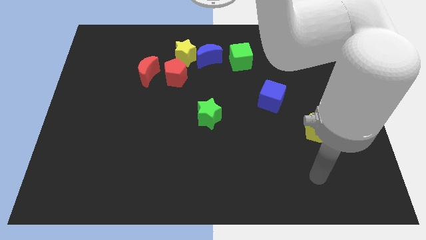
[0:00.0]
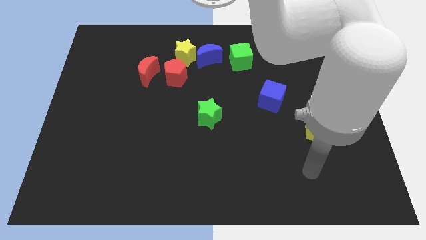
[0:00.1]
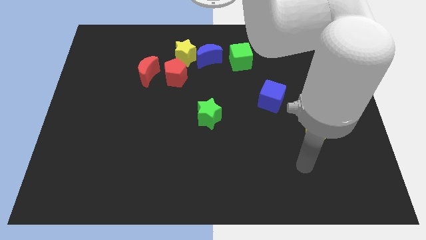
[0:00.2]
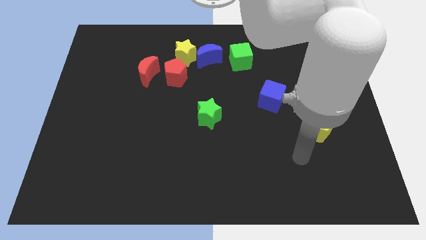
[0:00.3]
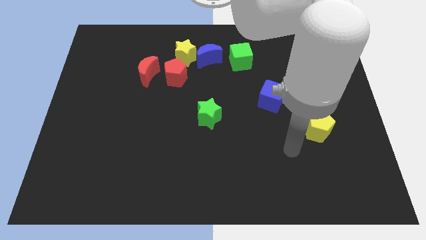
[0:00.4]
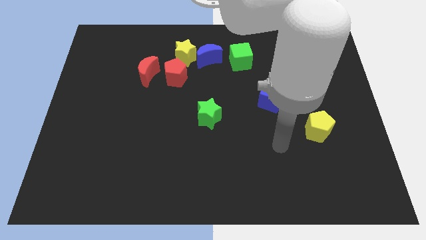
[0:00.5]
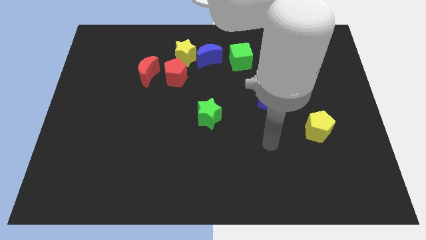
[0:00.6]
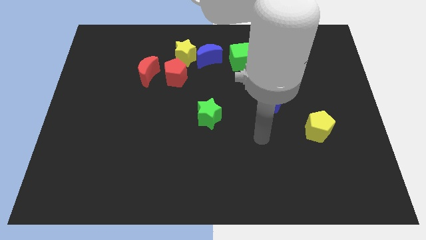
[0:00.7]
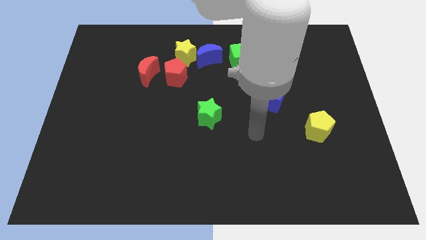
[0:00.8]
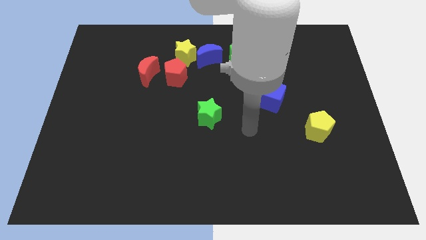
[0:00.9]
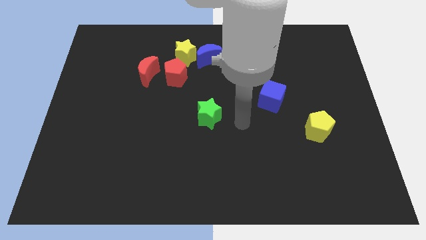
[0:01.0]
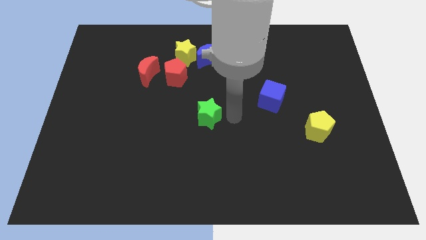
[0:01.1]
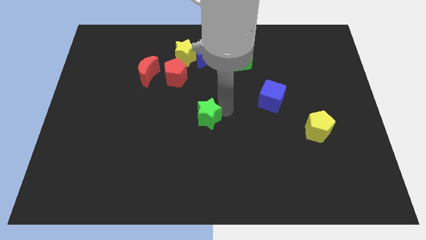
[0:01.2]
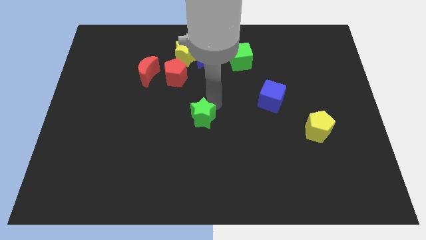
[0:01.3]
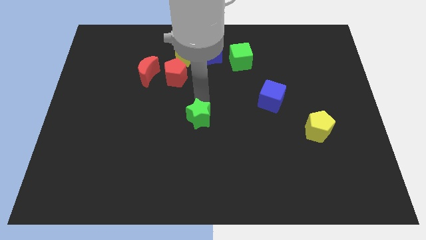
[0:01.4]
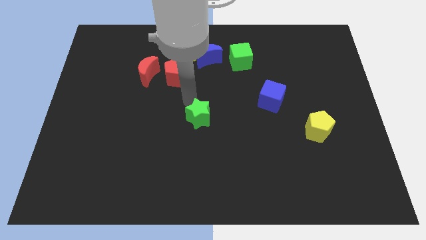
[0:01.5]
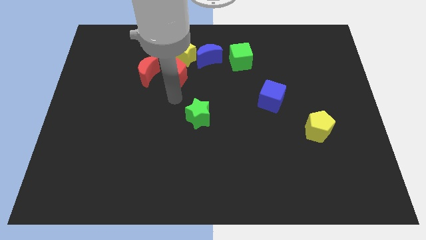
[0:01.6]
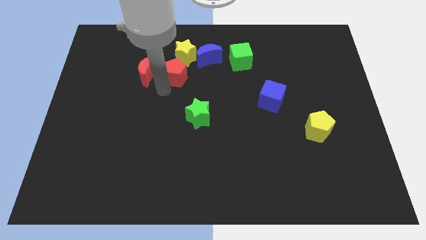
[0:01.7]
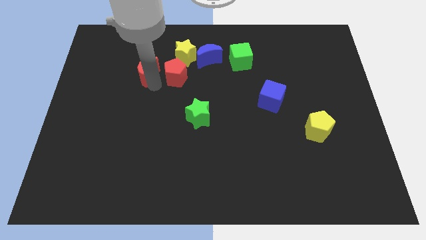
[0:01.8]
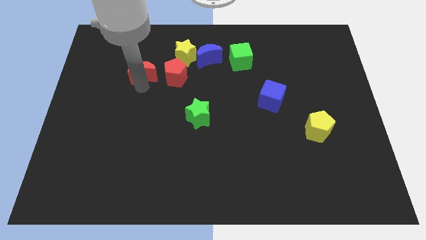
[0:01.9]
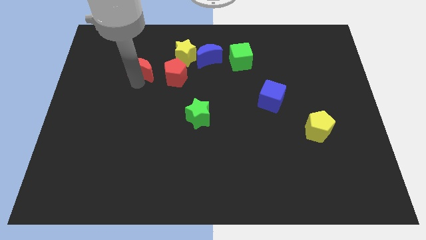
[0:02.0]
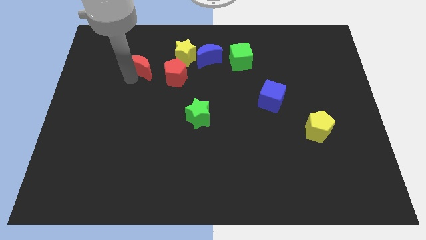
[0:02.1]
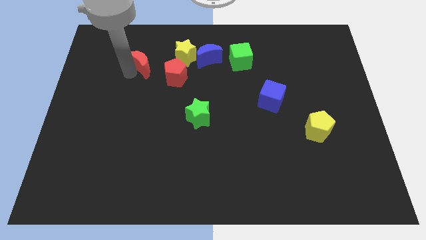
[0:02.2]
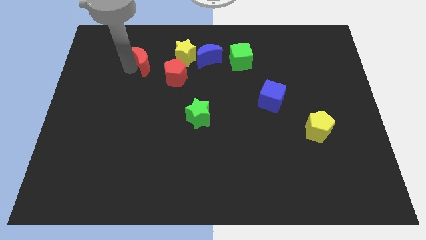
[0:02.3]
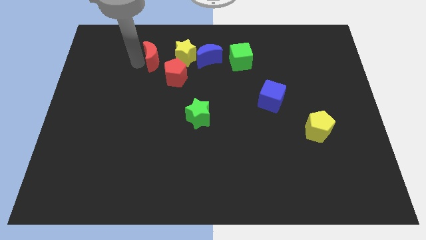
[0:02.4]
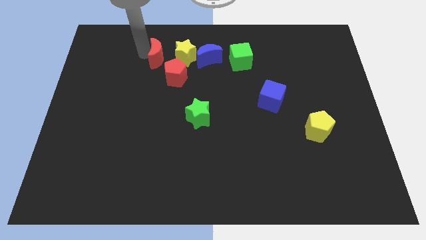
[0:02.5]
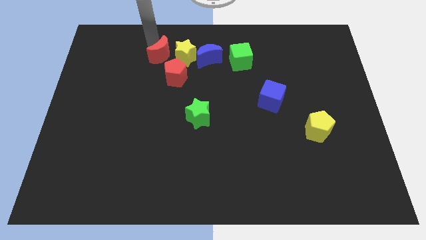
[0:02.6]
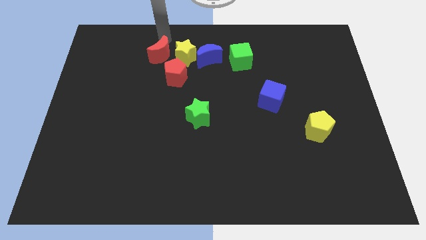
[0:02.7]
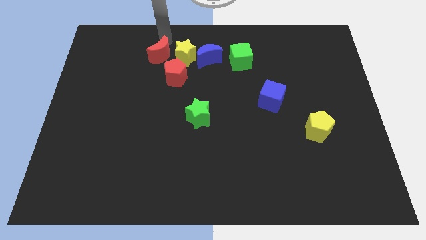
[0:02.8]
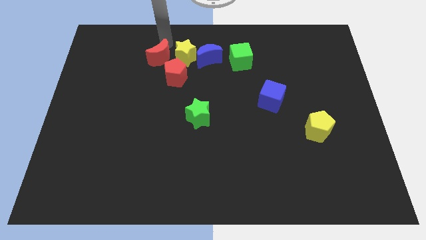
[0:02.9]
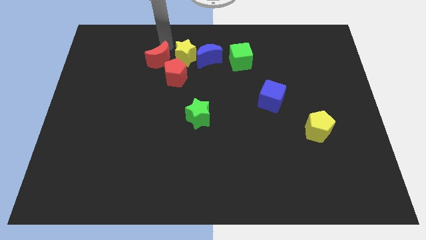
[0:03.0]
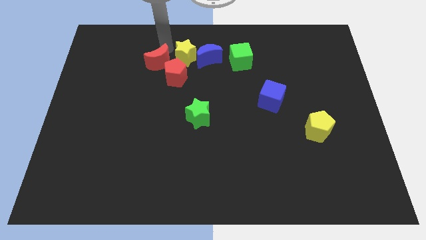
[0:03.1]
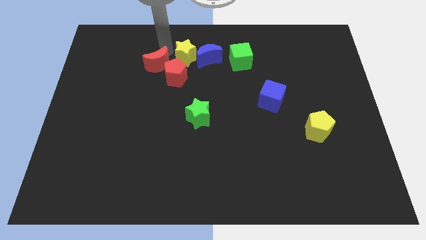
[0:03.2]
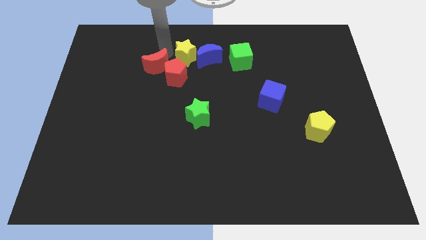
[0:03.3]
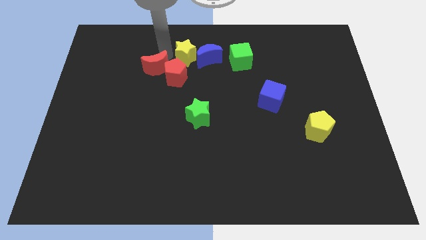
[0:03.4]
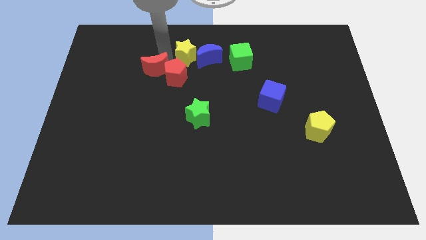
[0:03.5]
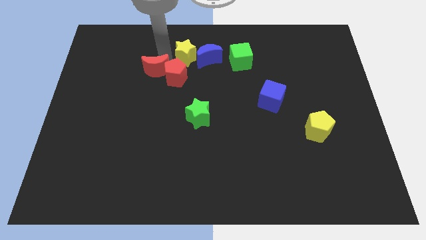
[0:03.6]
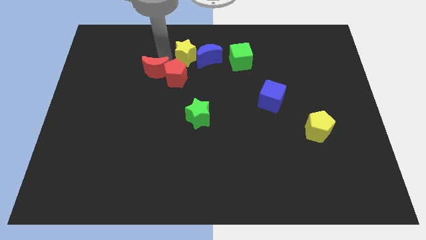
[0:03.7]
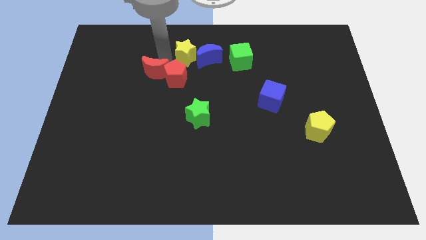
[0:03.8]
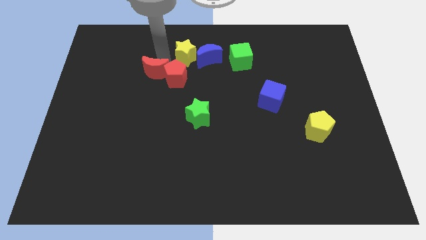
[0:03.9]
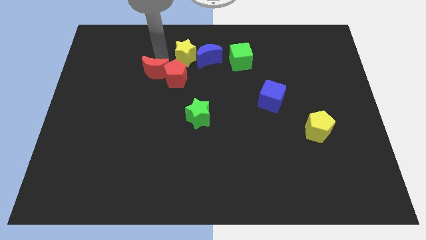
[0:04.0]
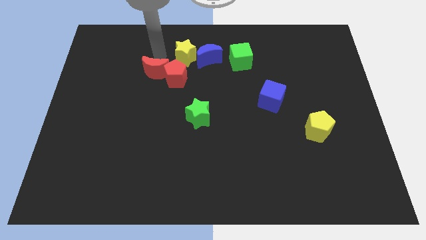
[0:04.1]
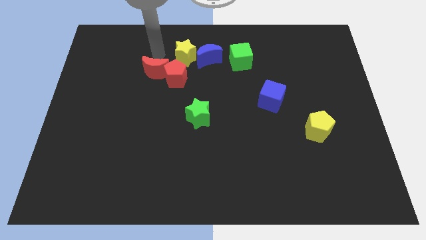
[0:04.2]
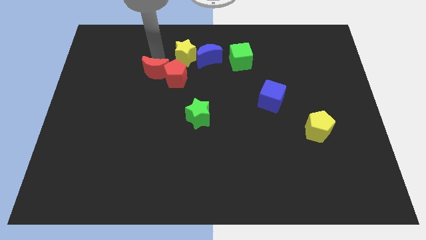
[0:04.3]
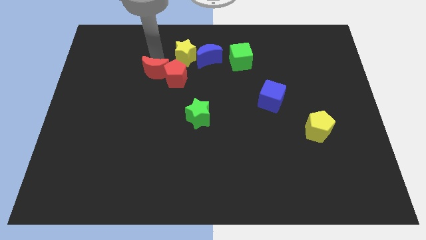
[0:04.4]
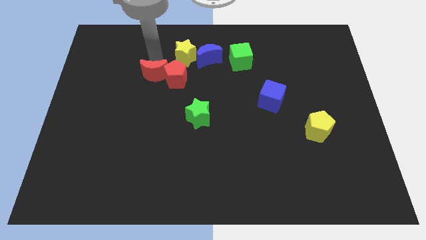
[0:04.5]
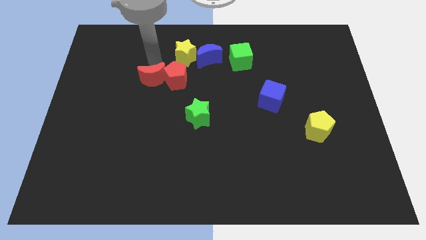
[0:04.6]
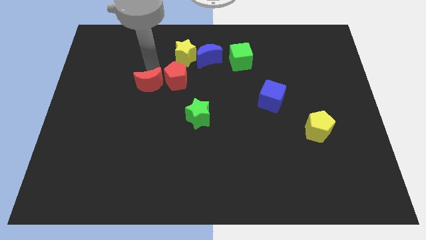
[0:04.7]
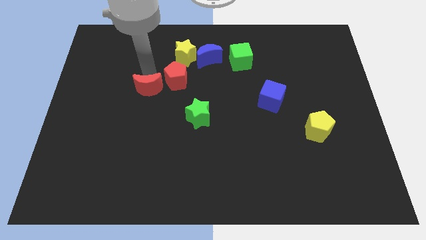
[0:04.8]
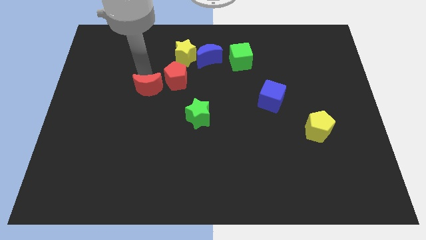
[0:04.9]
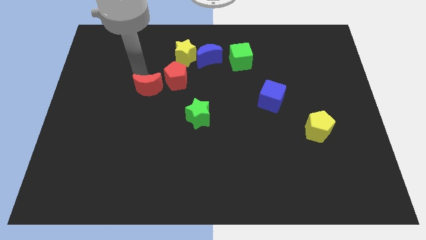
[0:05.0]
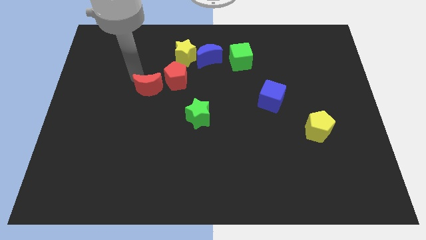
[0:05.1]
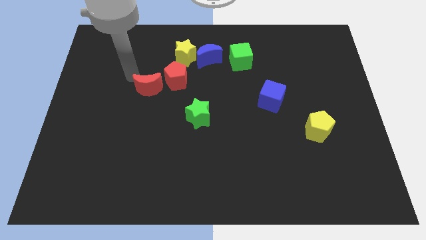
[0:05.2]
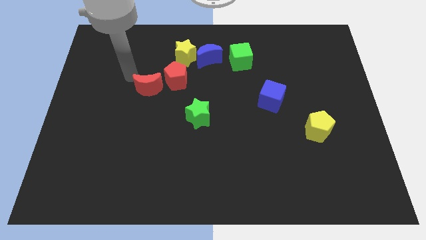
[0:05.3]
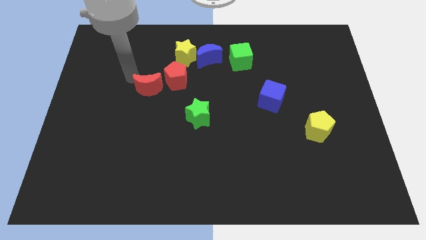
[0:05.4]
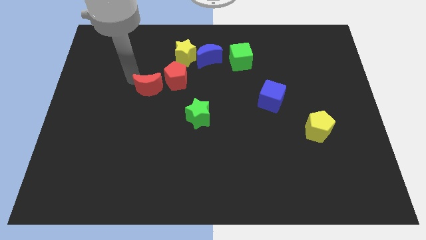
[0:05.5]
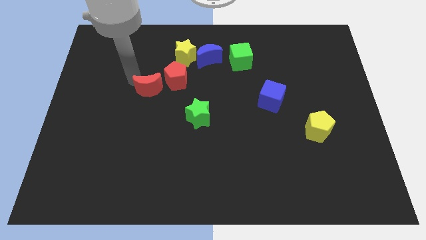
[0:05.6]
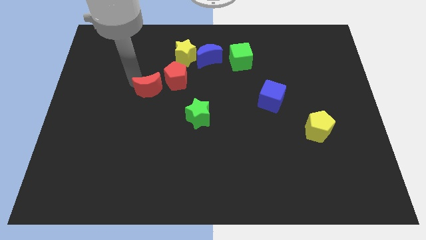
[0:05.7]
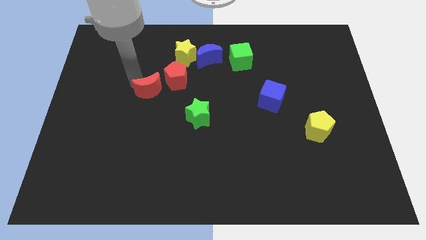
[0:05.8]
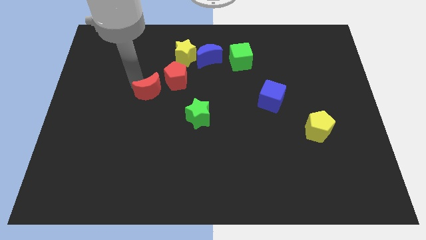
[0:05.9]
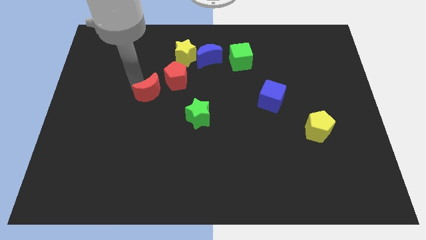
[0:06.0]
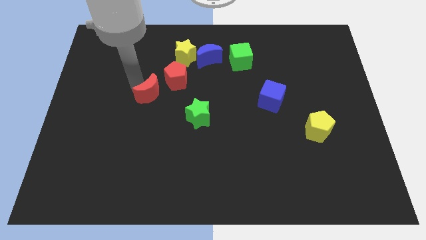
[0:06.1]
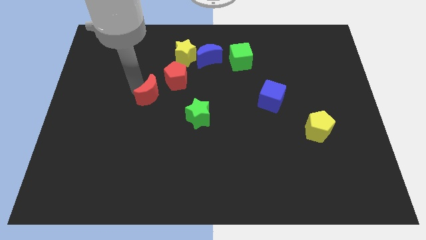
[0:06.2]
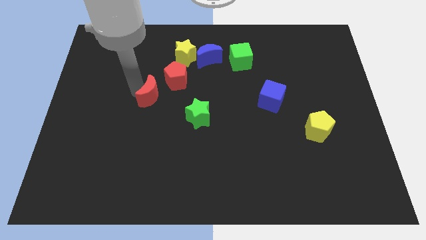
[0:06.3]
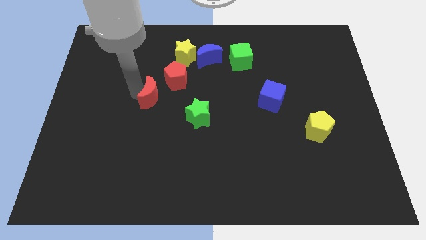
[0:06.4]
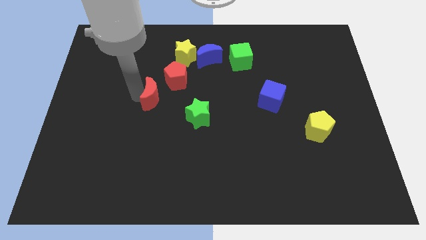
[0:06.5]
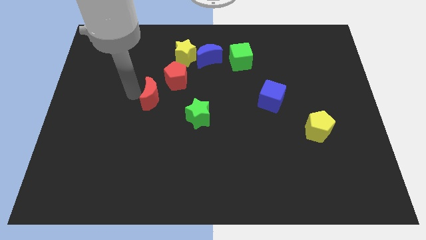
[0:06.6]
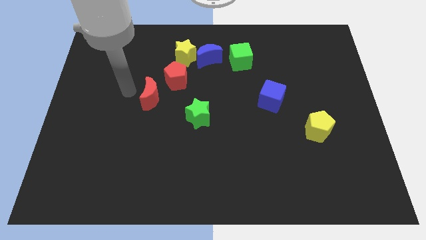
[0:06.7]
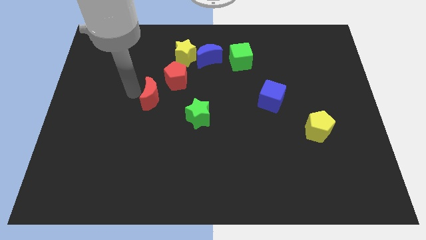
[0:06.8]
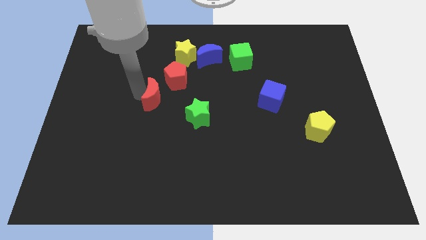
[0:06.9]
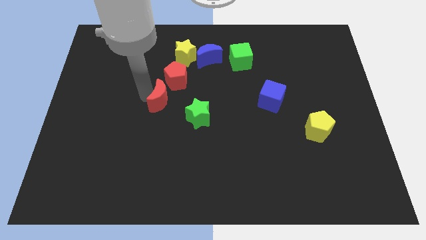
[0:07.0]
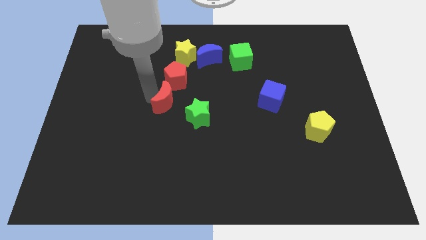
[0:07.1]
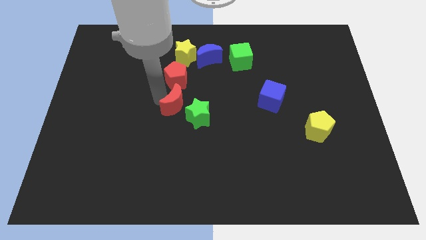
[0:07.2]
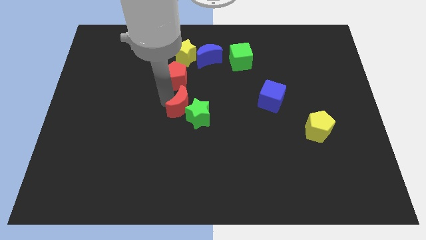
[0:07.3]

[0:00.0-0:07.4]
push the red moon towards the green star
